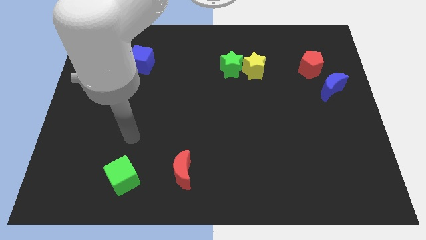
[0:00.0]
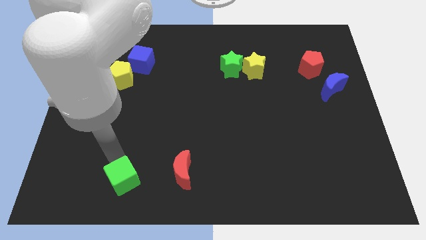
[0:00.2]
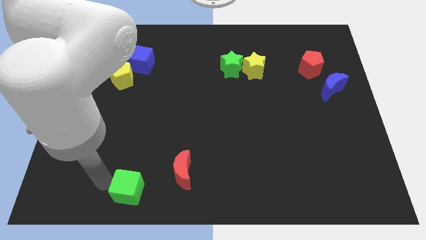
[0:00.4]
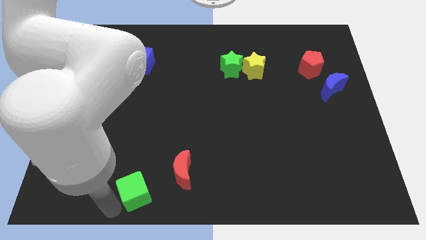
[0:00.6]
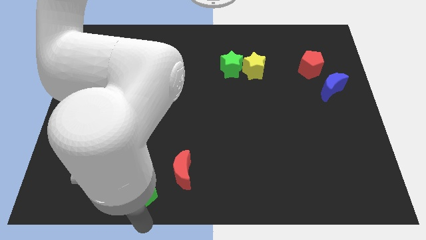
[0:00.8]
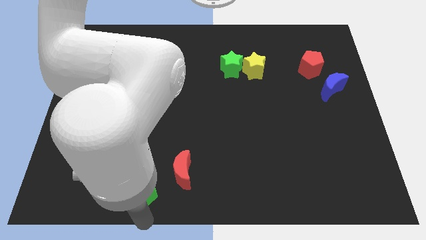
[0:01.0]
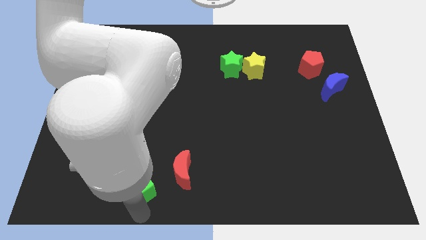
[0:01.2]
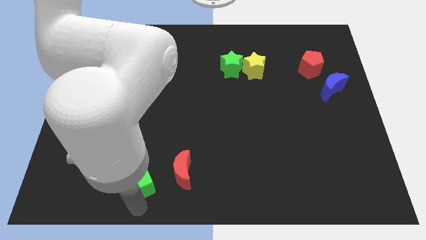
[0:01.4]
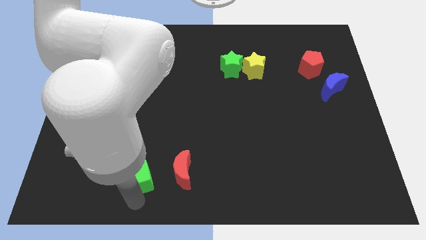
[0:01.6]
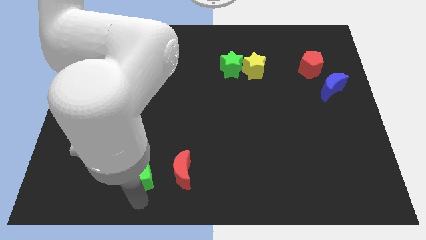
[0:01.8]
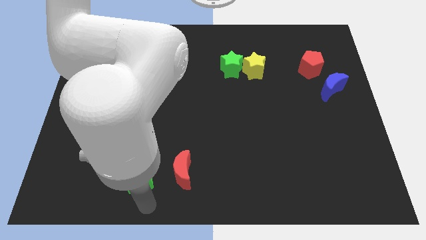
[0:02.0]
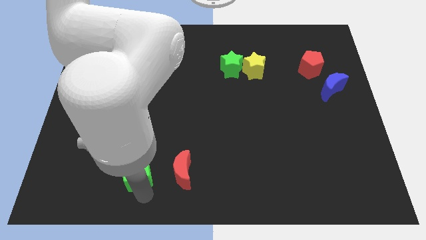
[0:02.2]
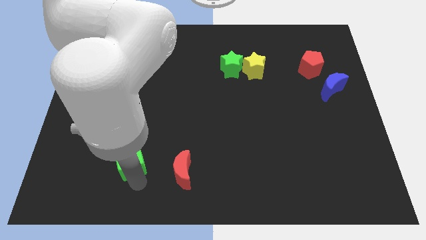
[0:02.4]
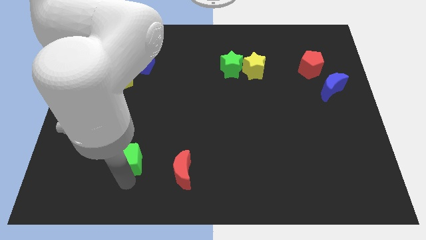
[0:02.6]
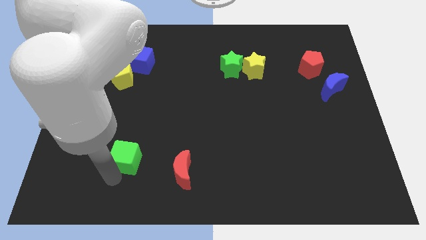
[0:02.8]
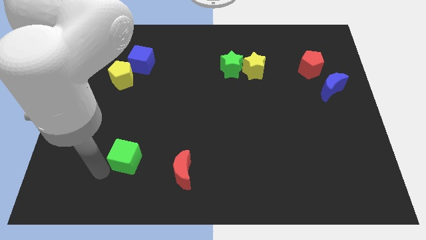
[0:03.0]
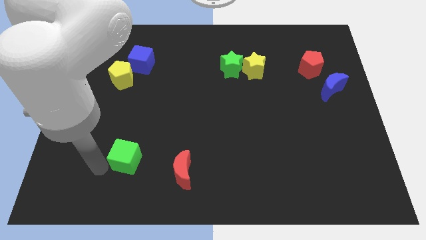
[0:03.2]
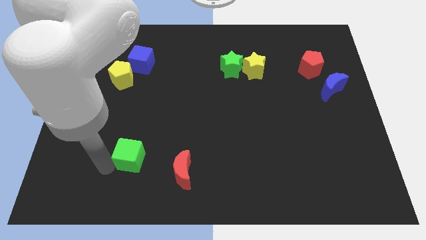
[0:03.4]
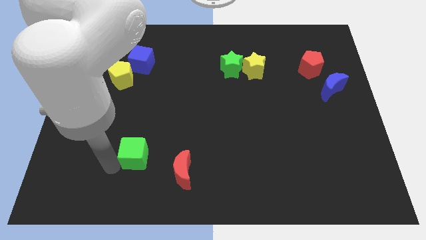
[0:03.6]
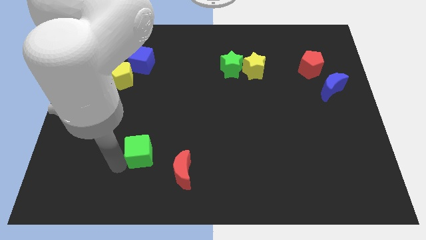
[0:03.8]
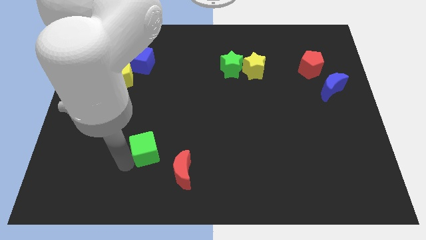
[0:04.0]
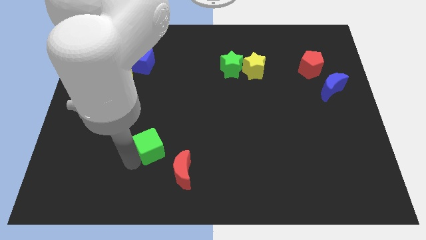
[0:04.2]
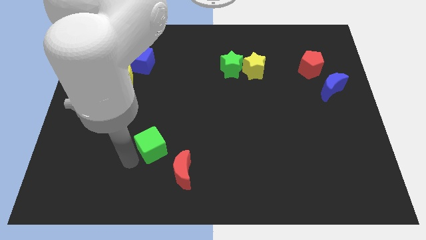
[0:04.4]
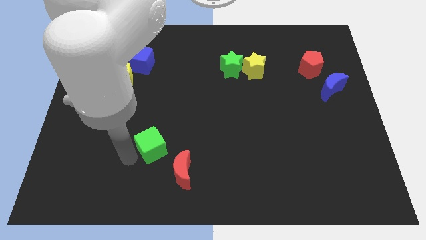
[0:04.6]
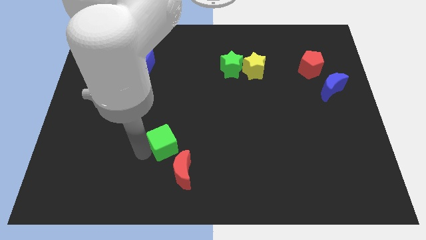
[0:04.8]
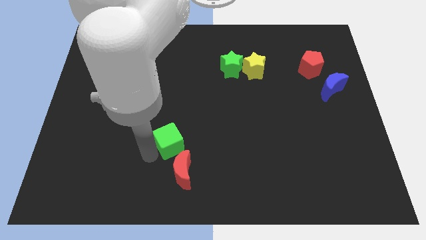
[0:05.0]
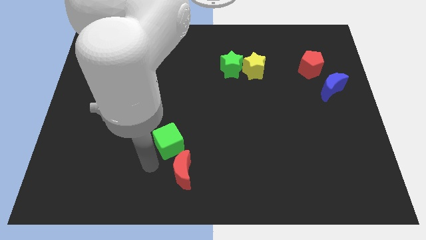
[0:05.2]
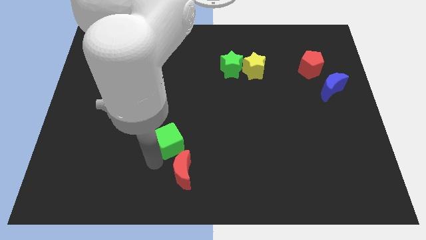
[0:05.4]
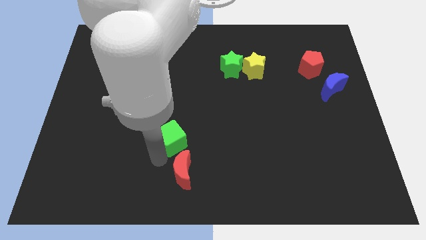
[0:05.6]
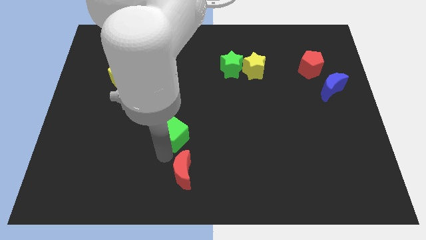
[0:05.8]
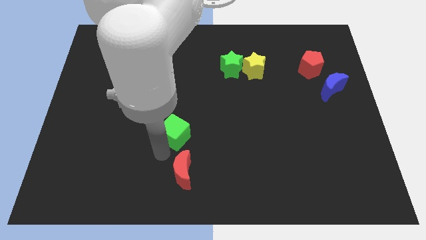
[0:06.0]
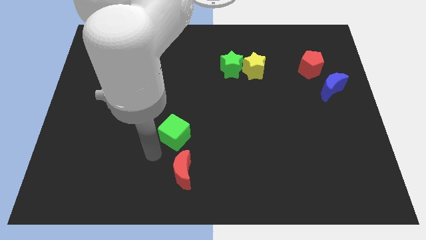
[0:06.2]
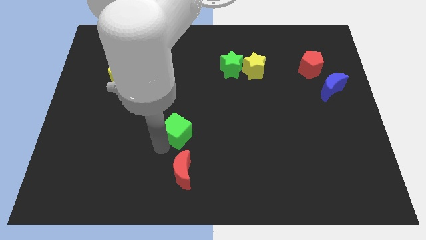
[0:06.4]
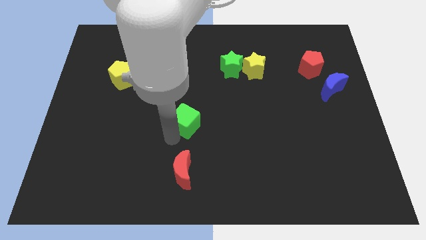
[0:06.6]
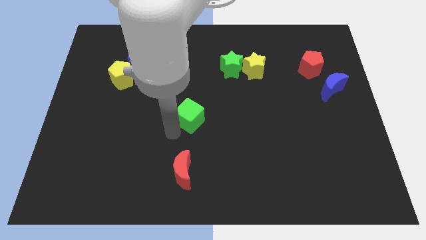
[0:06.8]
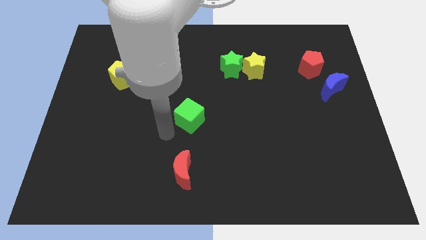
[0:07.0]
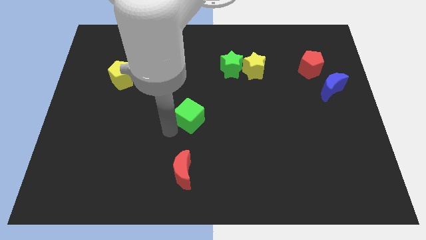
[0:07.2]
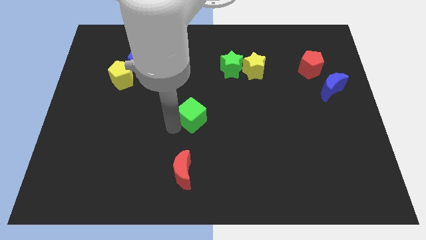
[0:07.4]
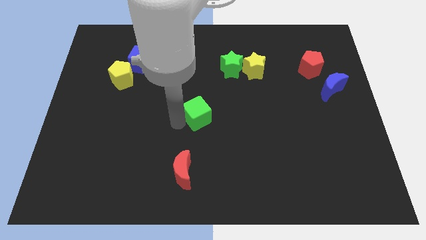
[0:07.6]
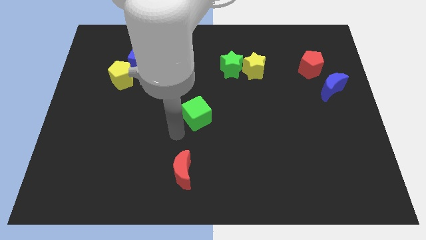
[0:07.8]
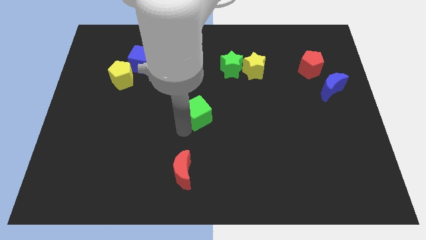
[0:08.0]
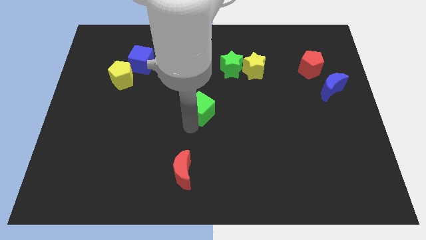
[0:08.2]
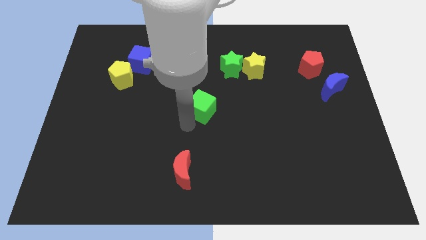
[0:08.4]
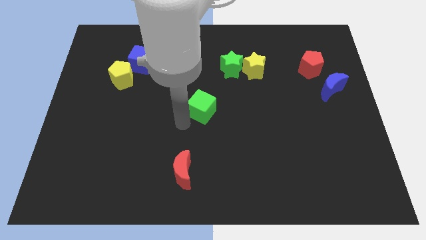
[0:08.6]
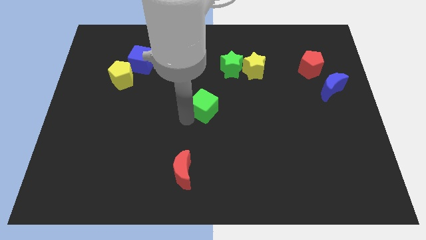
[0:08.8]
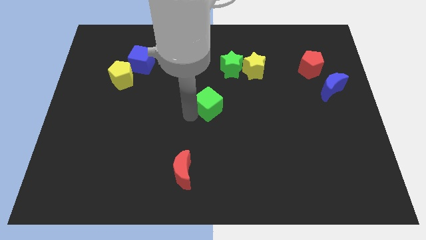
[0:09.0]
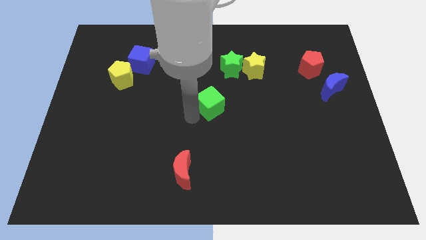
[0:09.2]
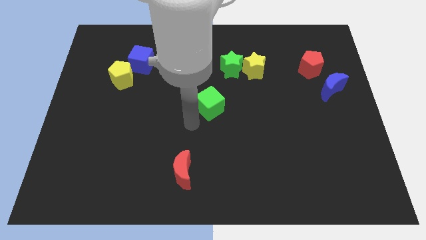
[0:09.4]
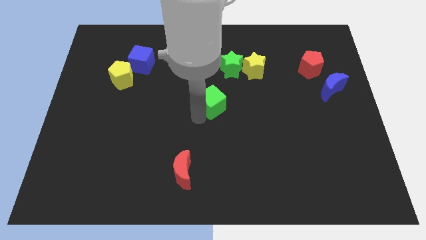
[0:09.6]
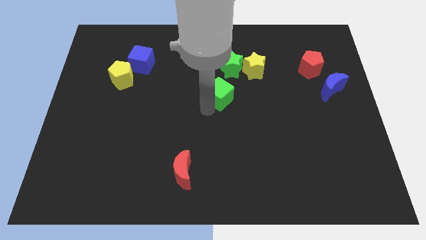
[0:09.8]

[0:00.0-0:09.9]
push the green cube to the bottom left side of the yellow star

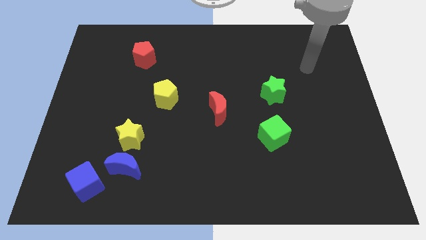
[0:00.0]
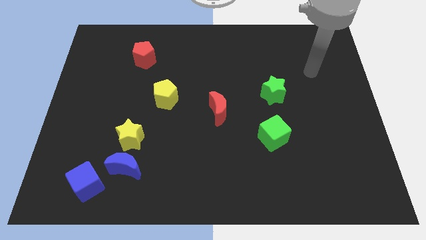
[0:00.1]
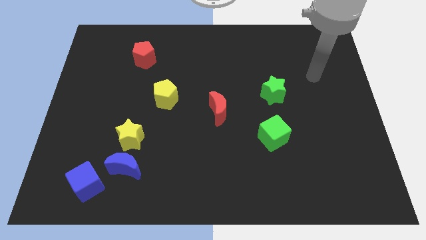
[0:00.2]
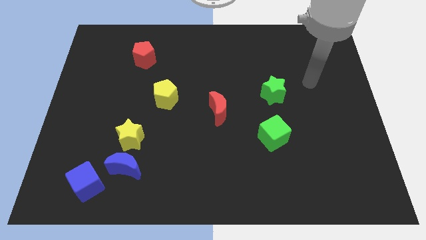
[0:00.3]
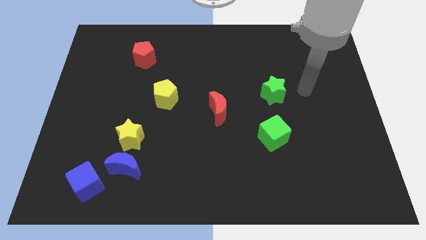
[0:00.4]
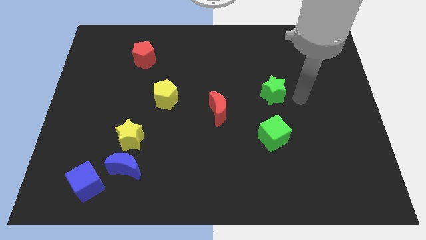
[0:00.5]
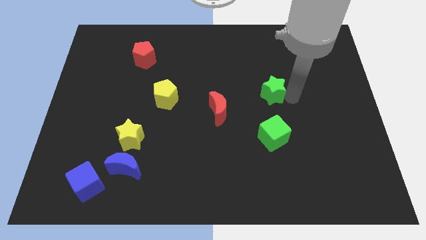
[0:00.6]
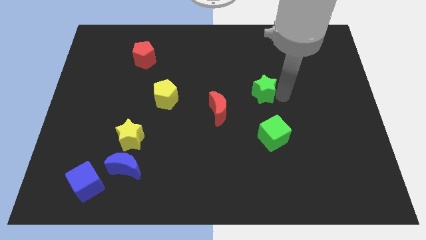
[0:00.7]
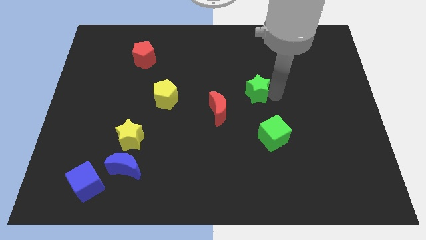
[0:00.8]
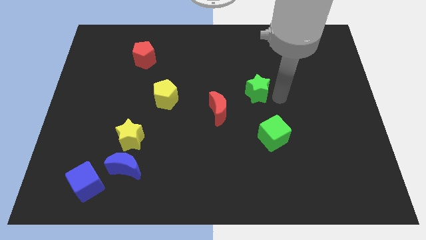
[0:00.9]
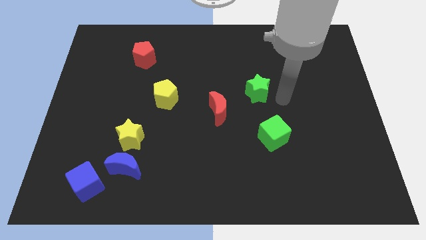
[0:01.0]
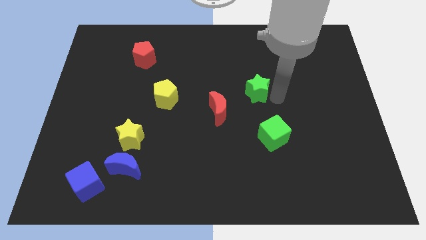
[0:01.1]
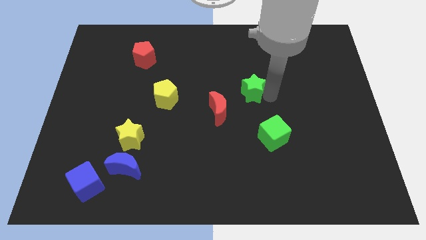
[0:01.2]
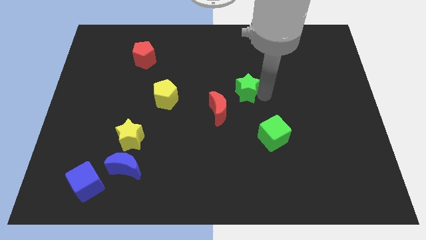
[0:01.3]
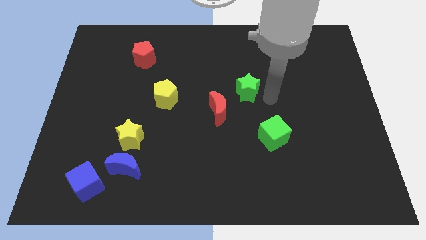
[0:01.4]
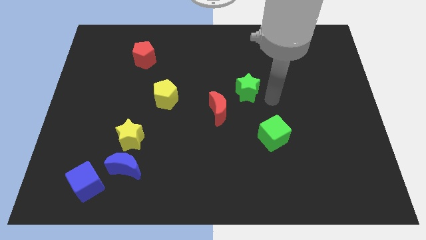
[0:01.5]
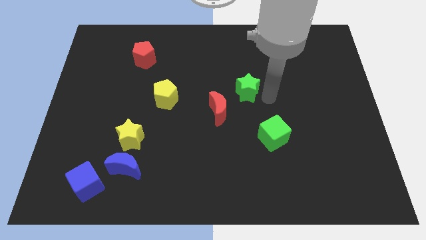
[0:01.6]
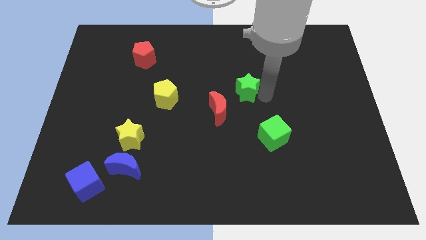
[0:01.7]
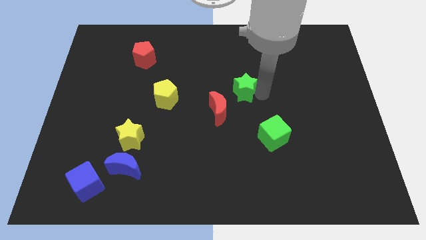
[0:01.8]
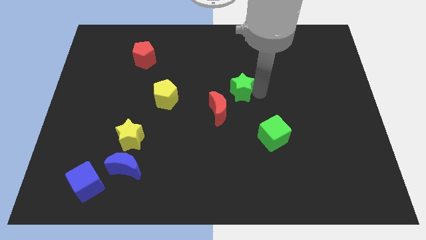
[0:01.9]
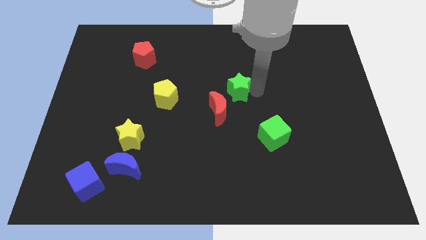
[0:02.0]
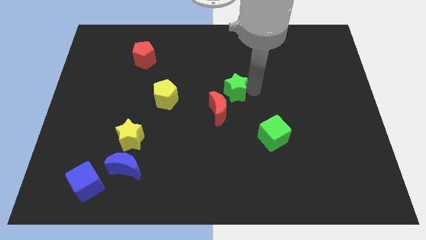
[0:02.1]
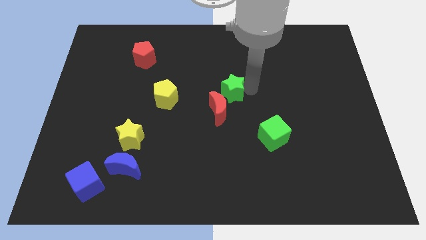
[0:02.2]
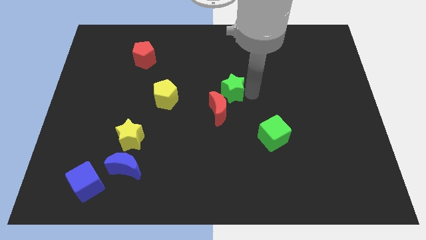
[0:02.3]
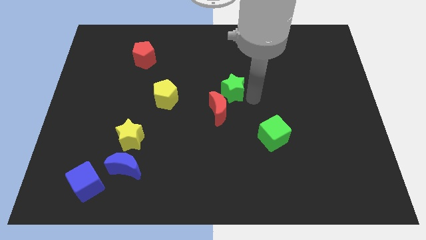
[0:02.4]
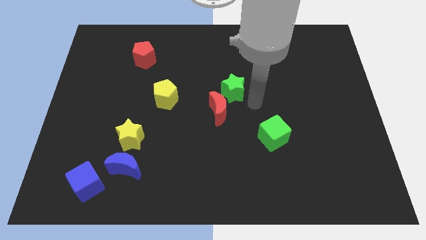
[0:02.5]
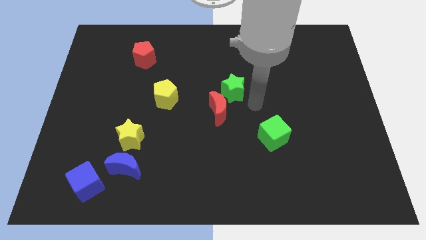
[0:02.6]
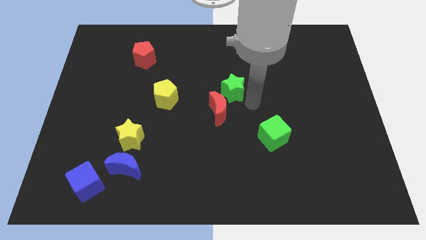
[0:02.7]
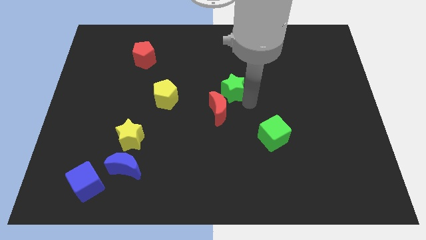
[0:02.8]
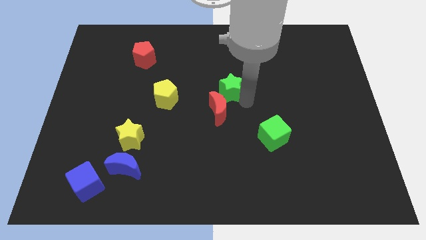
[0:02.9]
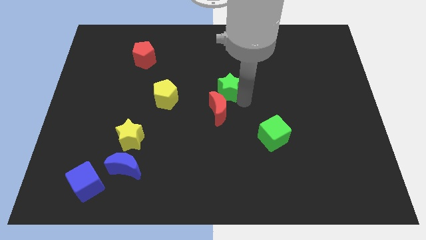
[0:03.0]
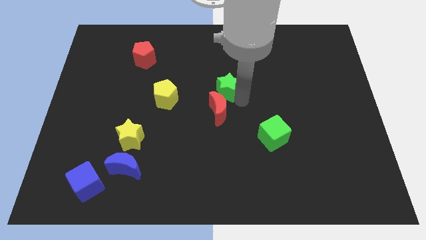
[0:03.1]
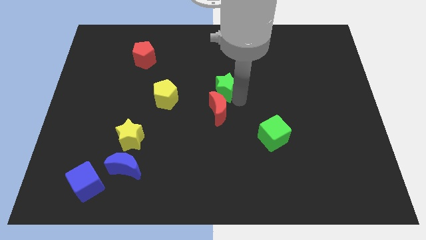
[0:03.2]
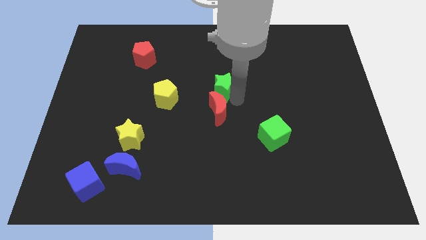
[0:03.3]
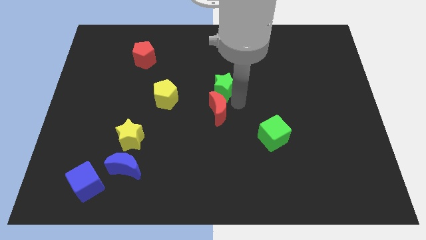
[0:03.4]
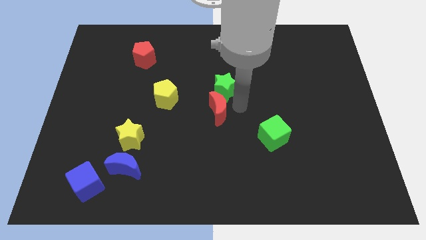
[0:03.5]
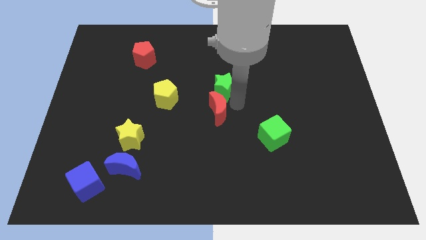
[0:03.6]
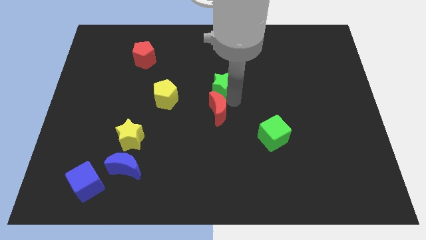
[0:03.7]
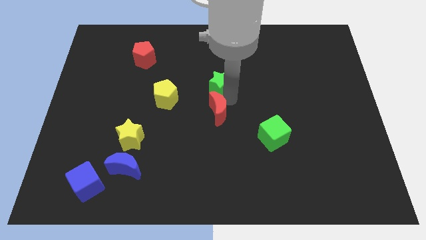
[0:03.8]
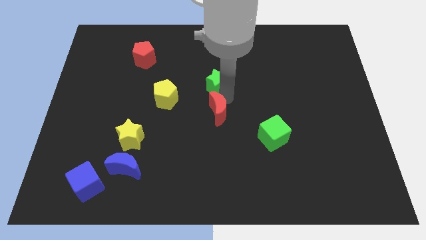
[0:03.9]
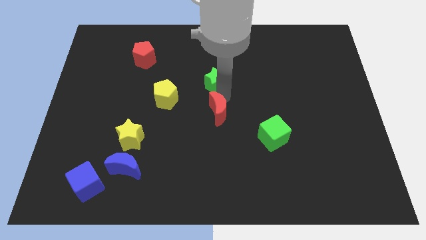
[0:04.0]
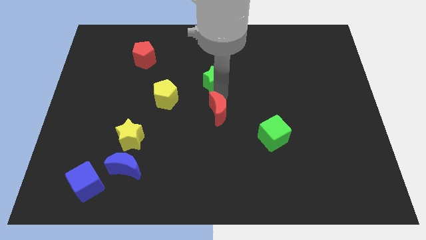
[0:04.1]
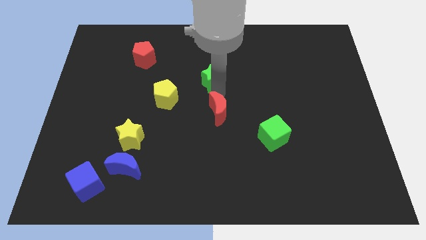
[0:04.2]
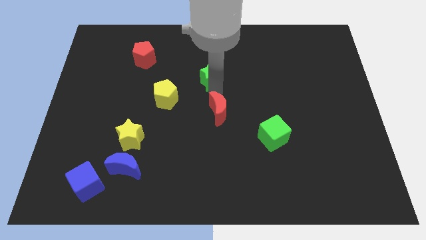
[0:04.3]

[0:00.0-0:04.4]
put the green star to the top right of the yellow pentagon
